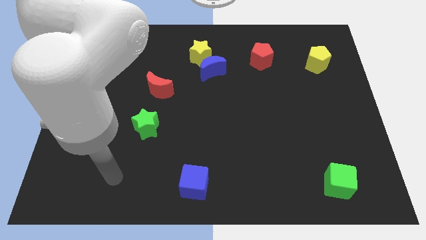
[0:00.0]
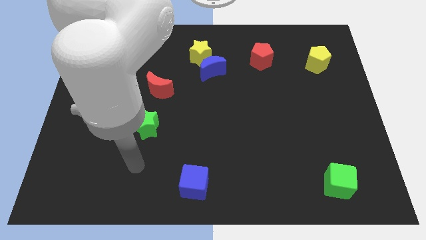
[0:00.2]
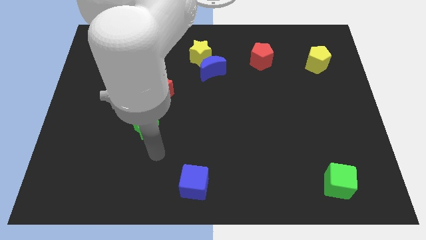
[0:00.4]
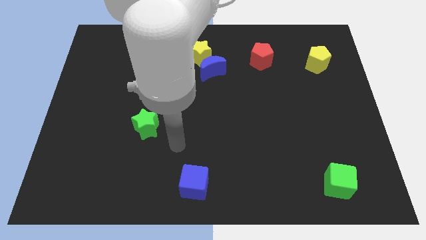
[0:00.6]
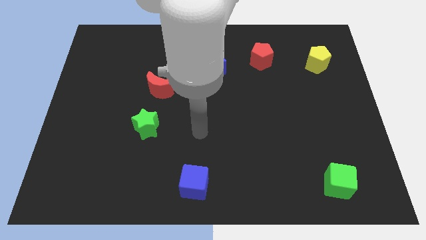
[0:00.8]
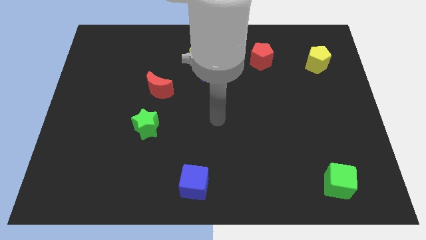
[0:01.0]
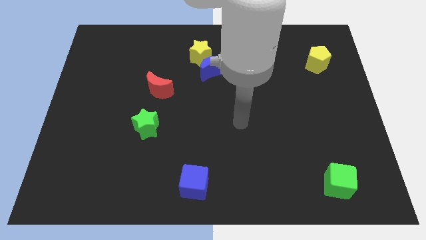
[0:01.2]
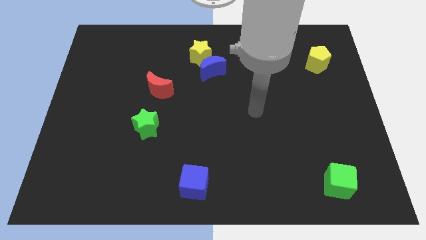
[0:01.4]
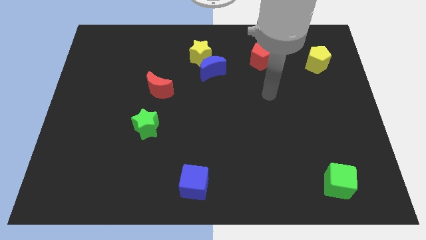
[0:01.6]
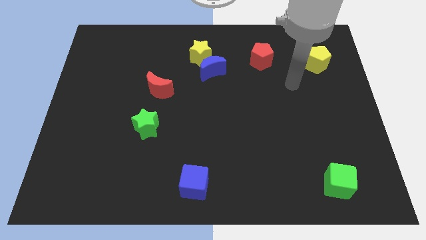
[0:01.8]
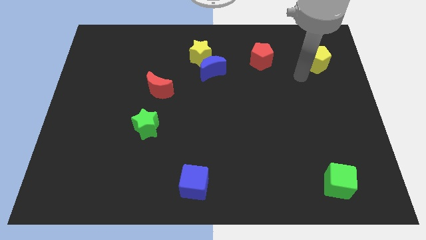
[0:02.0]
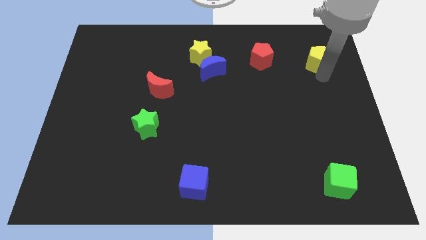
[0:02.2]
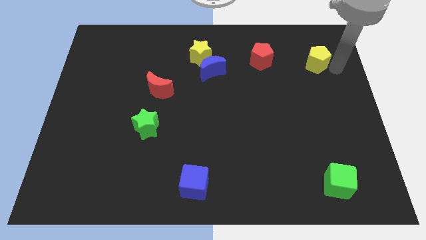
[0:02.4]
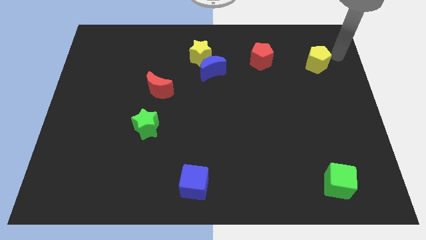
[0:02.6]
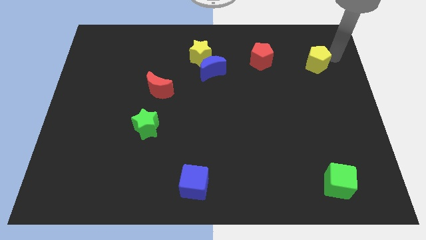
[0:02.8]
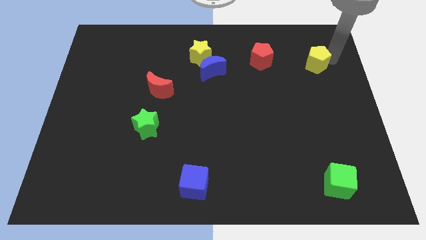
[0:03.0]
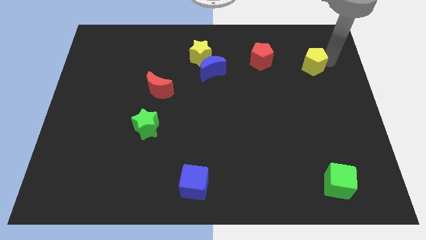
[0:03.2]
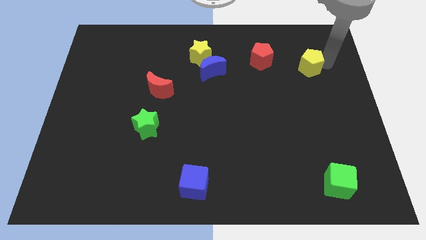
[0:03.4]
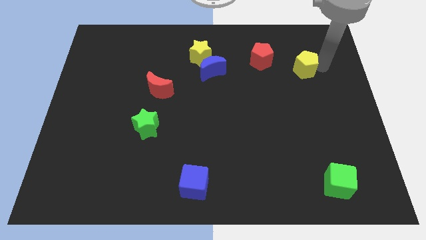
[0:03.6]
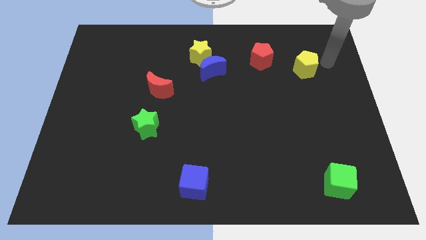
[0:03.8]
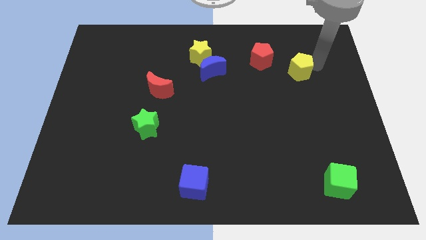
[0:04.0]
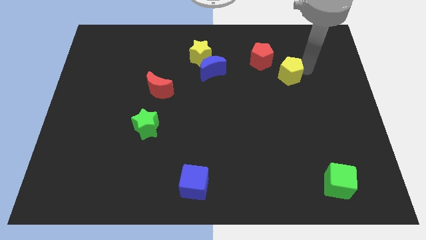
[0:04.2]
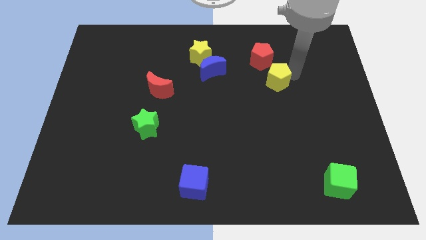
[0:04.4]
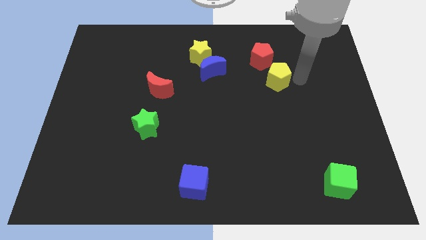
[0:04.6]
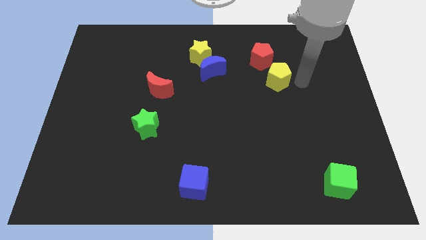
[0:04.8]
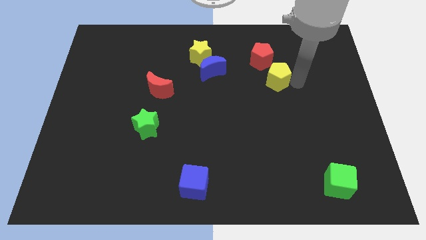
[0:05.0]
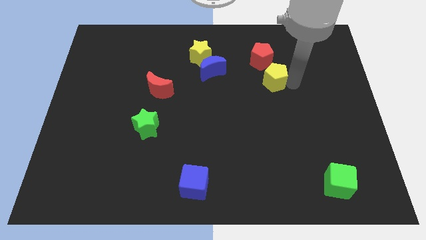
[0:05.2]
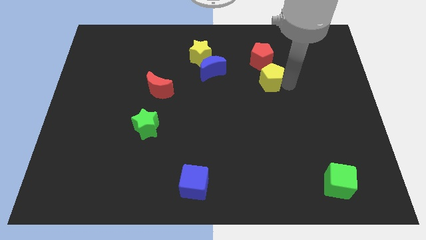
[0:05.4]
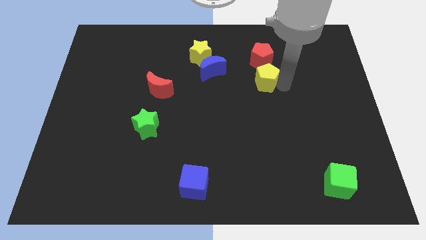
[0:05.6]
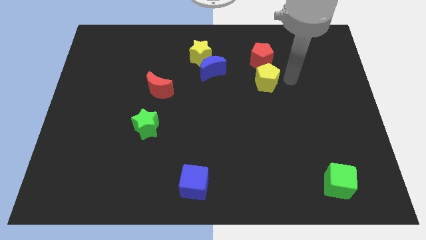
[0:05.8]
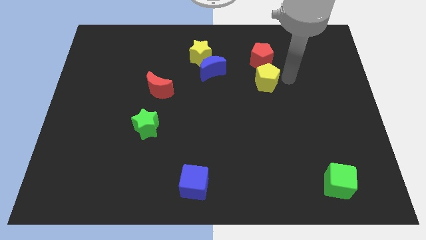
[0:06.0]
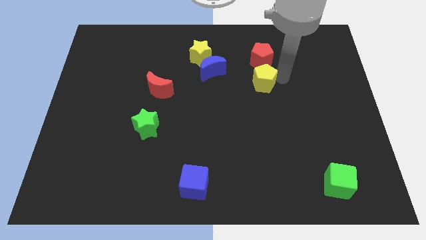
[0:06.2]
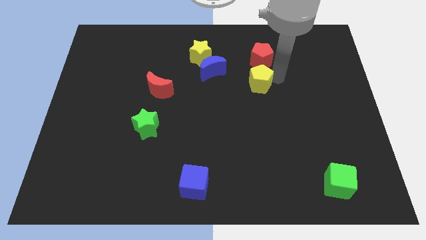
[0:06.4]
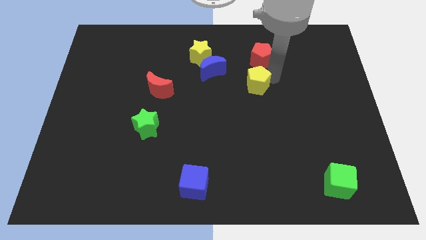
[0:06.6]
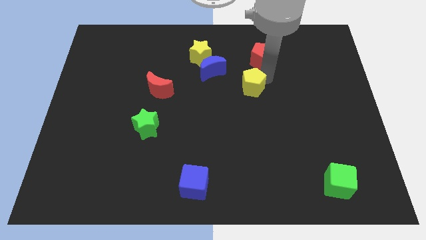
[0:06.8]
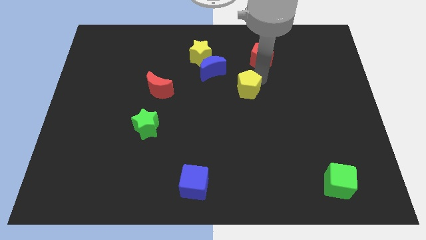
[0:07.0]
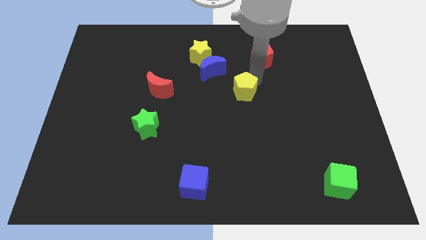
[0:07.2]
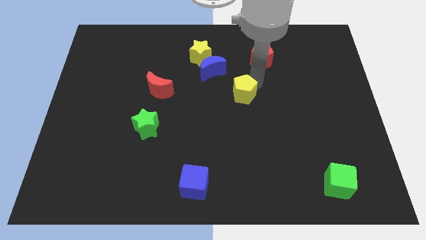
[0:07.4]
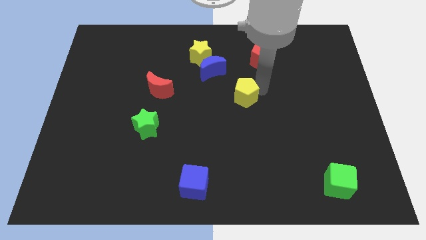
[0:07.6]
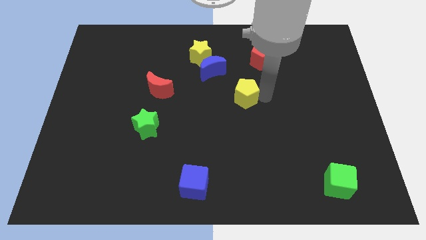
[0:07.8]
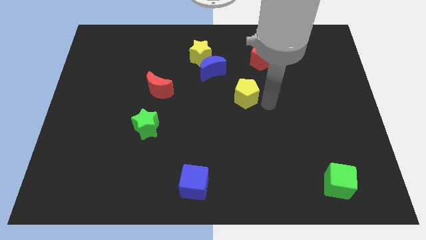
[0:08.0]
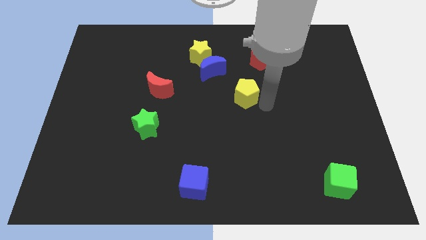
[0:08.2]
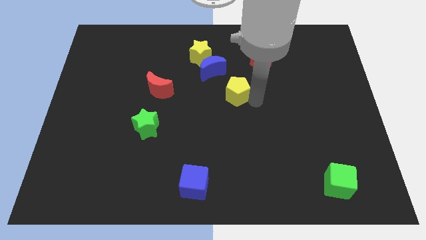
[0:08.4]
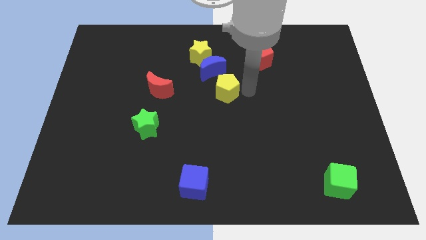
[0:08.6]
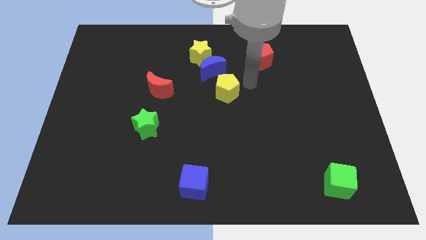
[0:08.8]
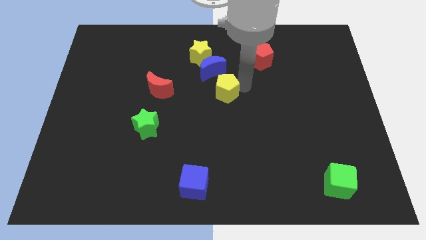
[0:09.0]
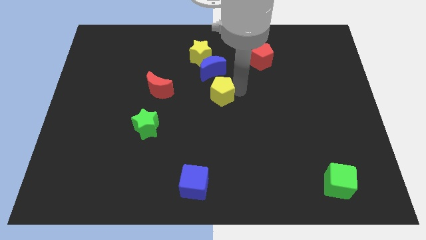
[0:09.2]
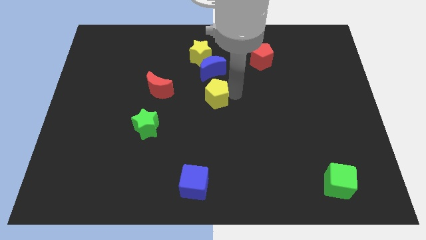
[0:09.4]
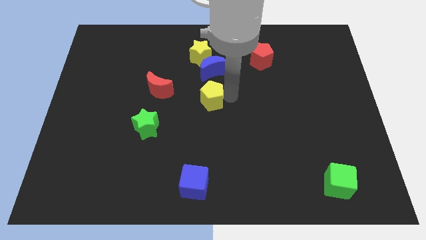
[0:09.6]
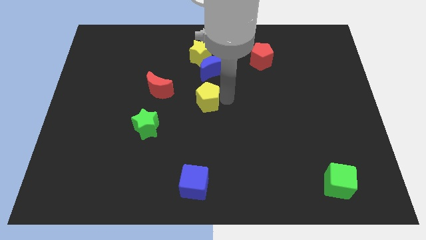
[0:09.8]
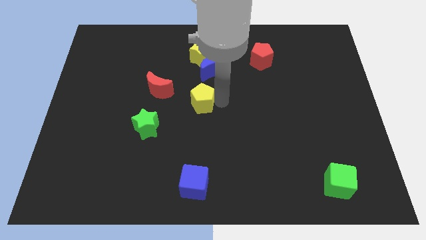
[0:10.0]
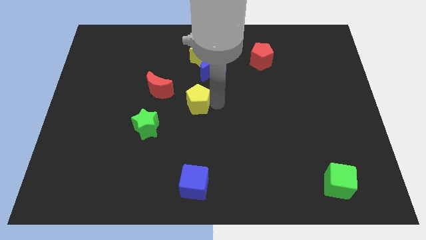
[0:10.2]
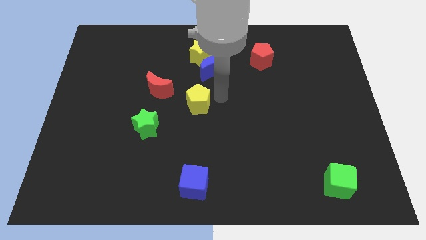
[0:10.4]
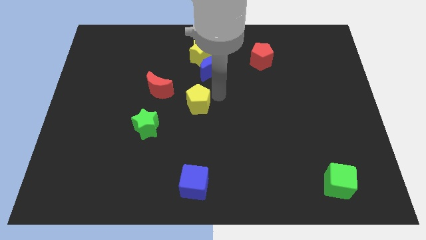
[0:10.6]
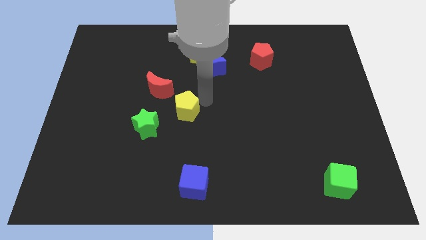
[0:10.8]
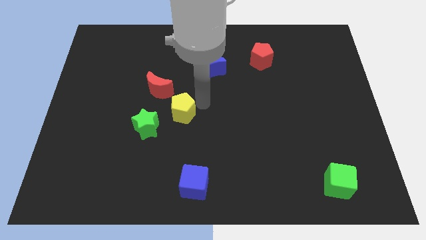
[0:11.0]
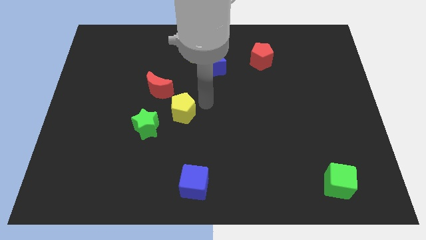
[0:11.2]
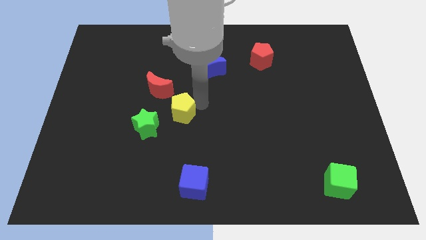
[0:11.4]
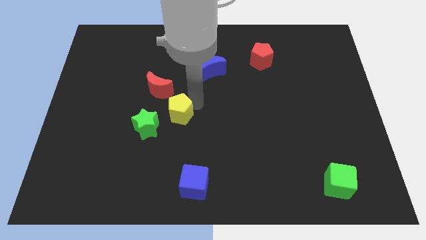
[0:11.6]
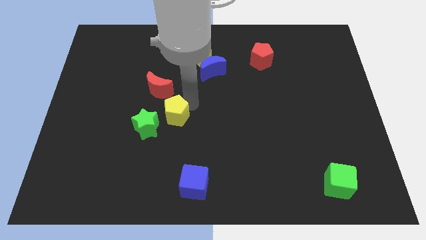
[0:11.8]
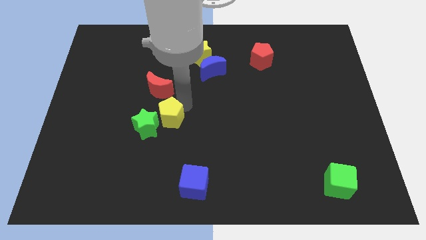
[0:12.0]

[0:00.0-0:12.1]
push the yellow pentagon to the green star

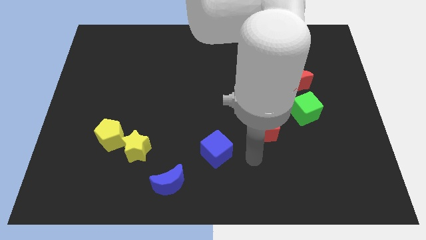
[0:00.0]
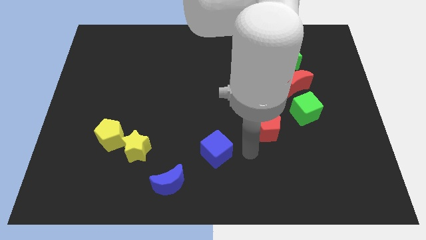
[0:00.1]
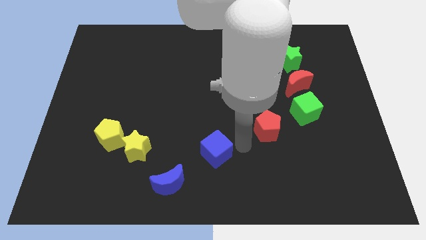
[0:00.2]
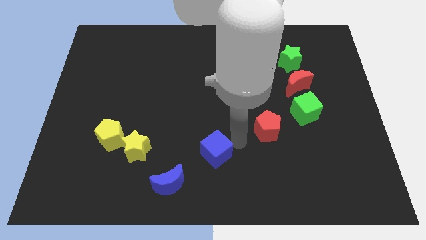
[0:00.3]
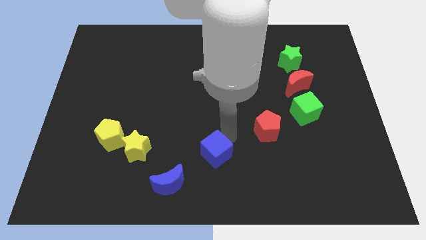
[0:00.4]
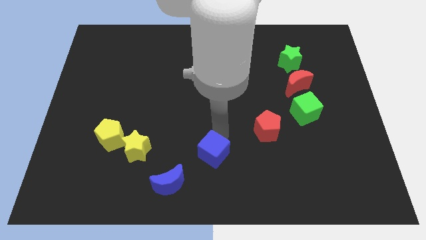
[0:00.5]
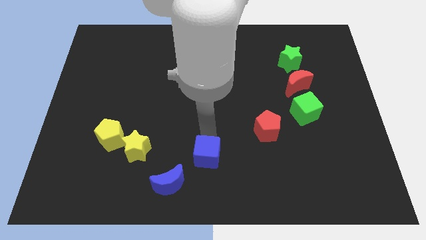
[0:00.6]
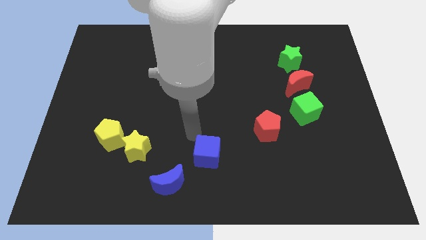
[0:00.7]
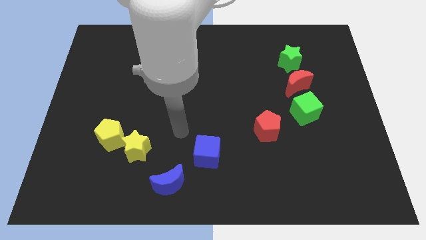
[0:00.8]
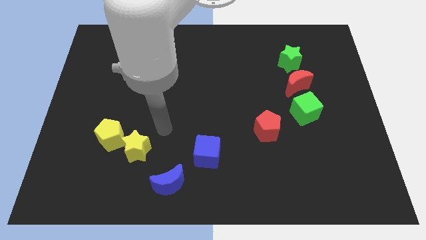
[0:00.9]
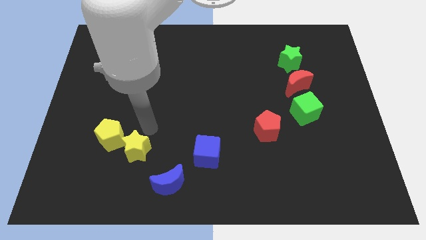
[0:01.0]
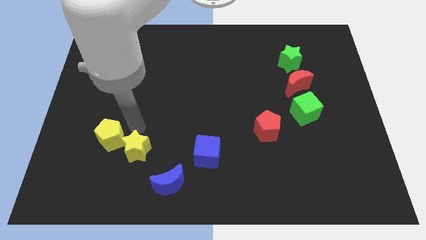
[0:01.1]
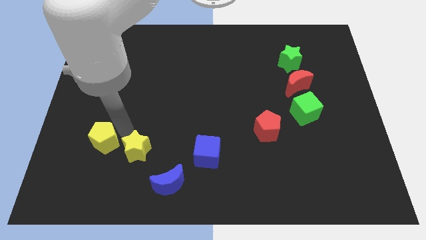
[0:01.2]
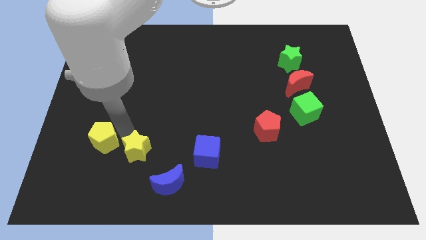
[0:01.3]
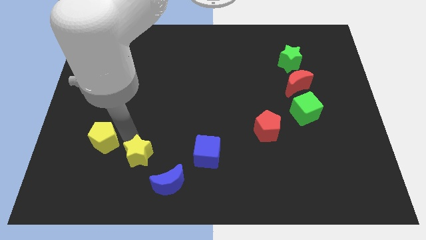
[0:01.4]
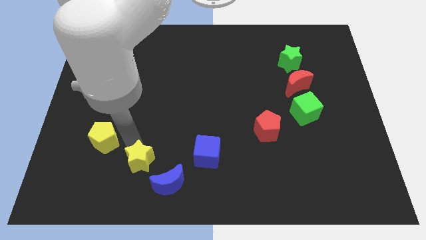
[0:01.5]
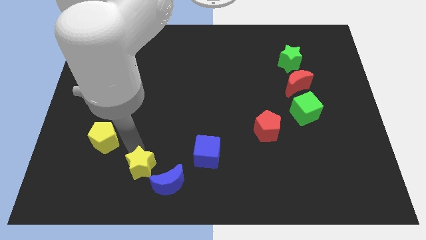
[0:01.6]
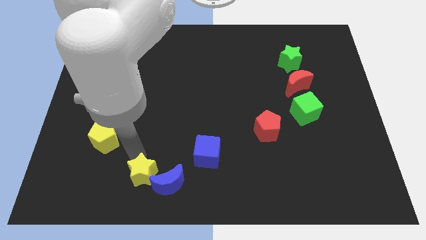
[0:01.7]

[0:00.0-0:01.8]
move the yellow star close to the blue moon
